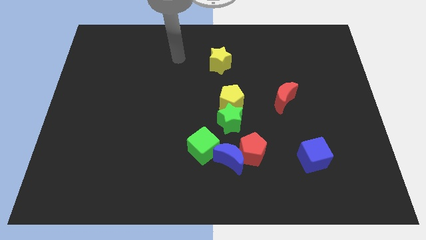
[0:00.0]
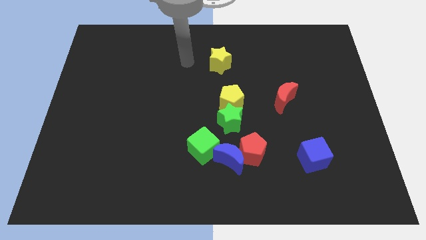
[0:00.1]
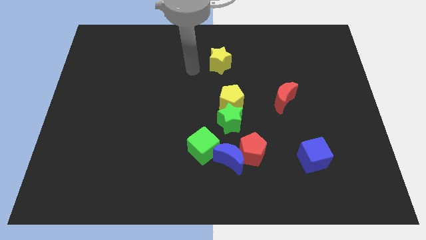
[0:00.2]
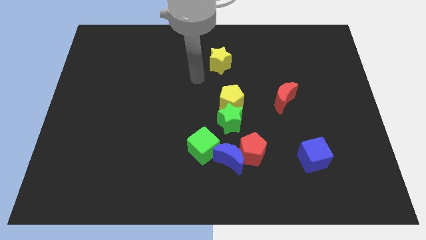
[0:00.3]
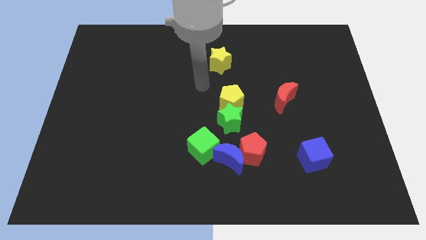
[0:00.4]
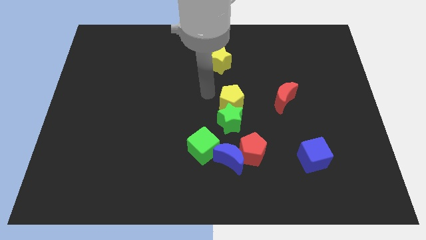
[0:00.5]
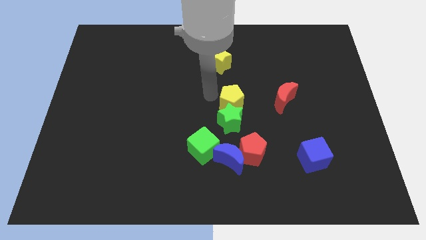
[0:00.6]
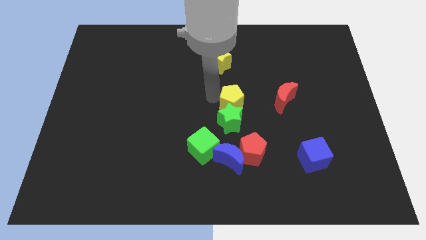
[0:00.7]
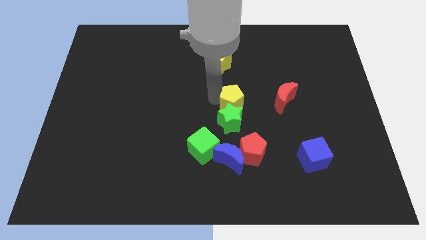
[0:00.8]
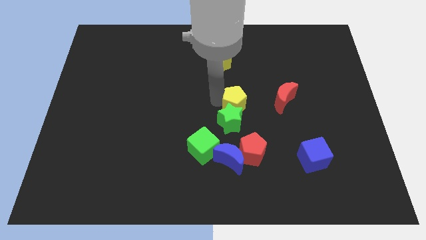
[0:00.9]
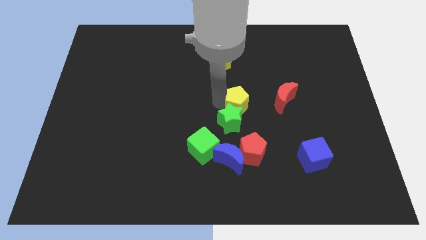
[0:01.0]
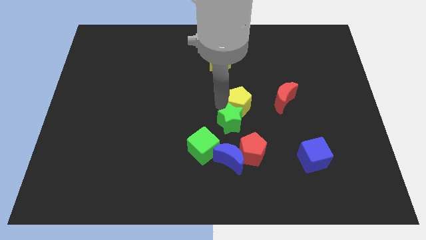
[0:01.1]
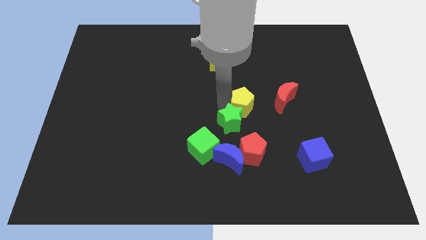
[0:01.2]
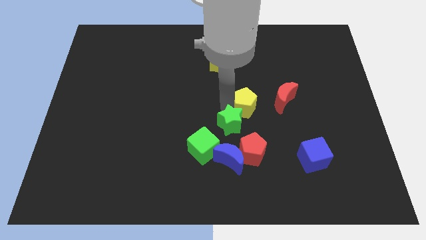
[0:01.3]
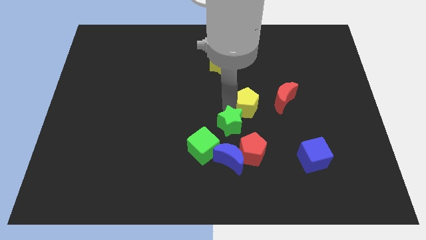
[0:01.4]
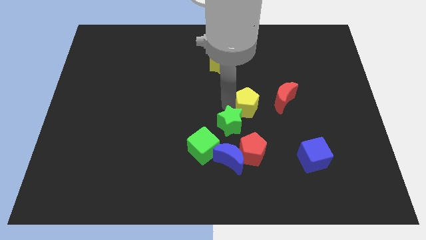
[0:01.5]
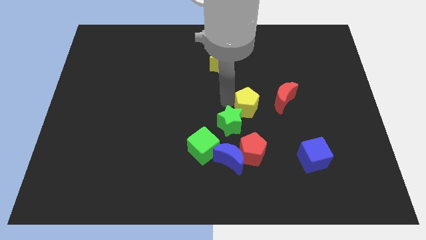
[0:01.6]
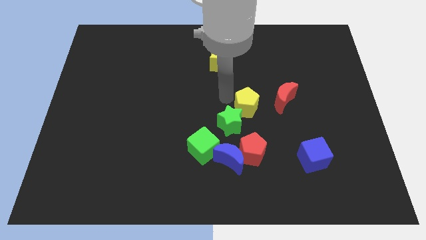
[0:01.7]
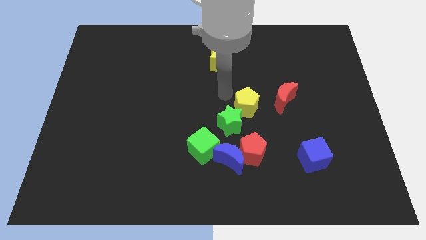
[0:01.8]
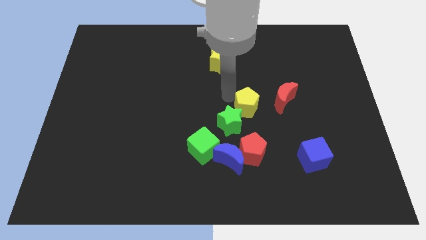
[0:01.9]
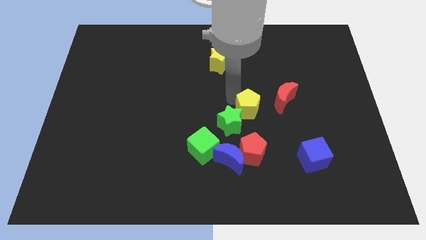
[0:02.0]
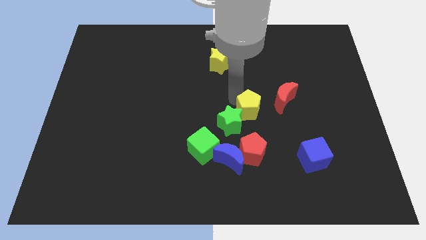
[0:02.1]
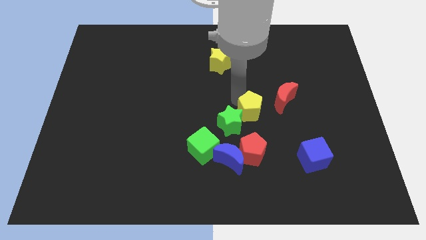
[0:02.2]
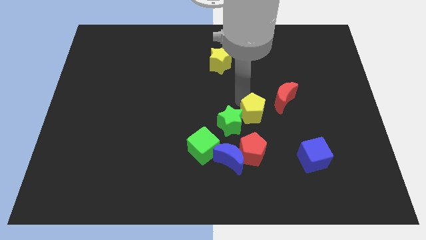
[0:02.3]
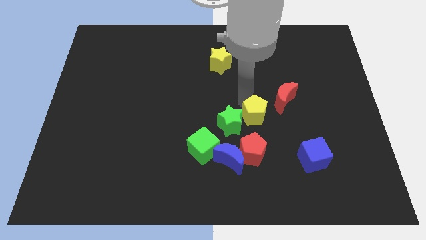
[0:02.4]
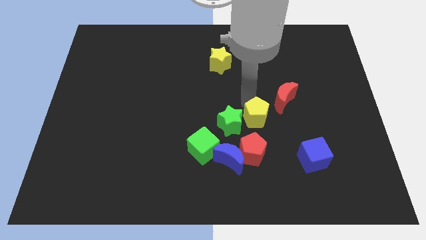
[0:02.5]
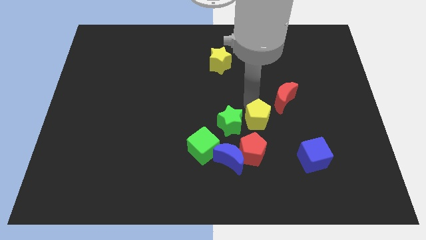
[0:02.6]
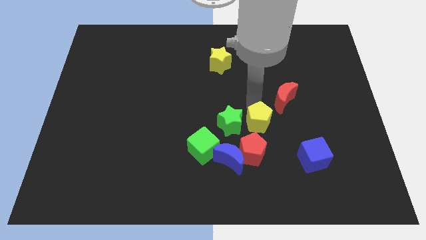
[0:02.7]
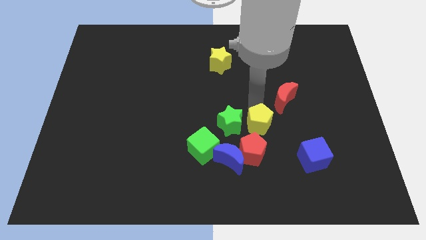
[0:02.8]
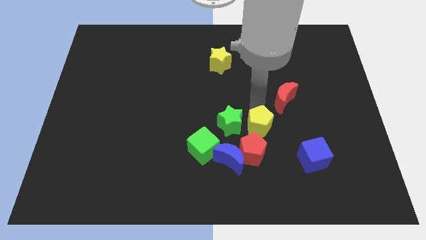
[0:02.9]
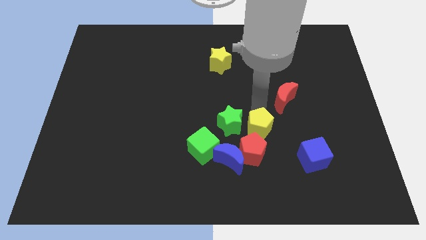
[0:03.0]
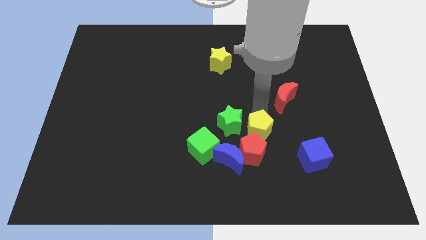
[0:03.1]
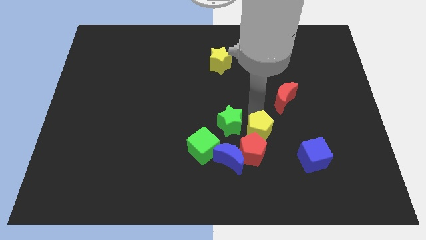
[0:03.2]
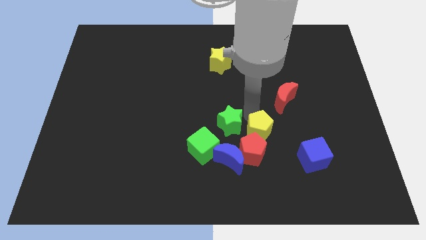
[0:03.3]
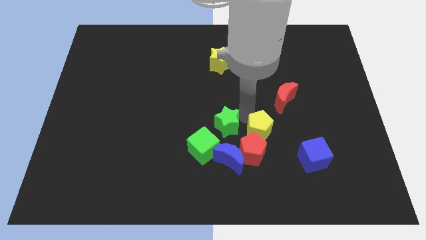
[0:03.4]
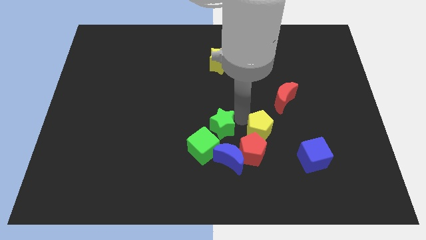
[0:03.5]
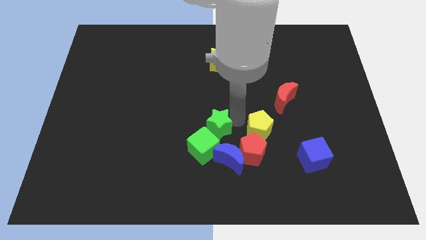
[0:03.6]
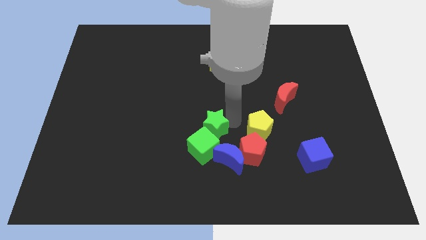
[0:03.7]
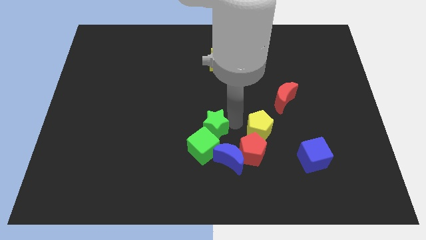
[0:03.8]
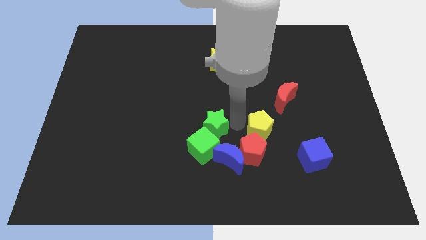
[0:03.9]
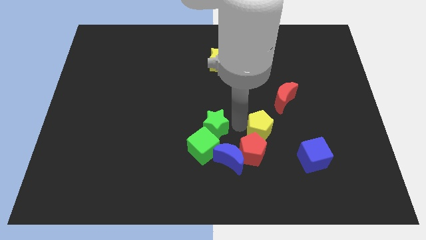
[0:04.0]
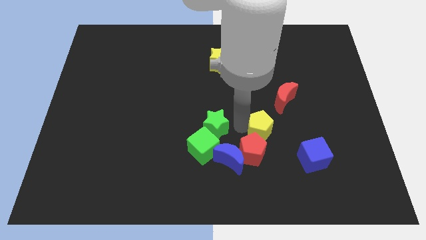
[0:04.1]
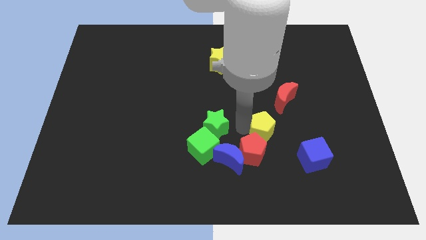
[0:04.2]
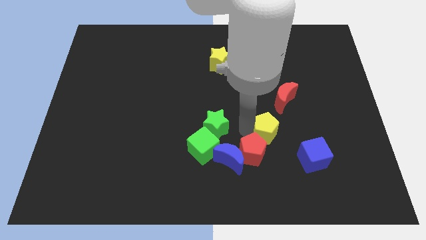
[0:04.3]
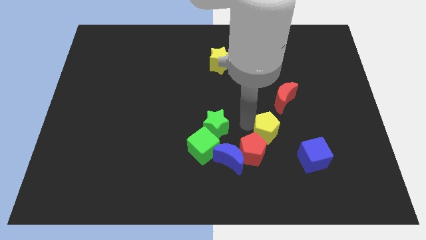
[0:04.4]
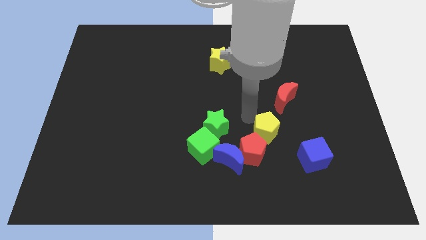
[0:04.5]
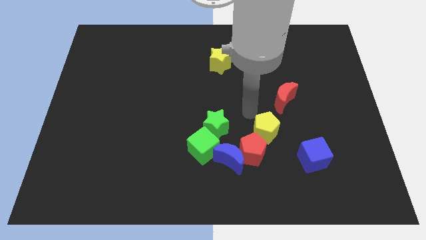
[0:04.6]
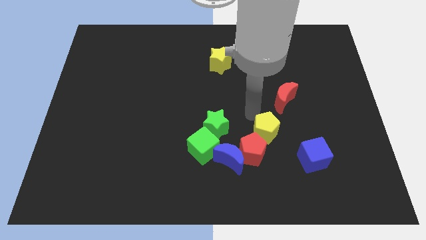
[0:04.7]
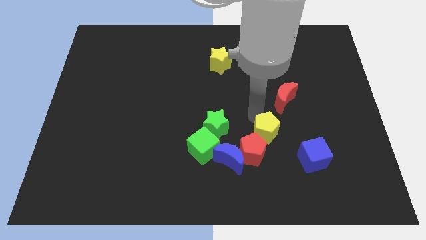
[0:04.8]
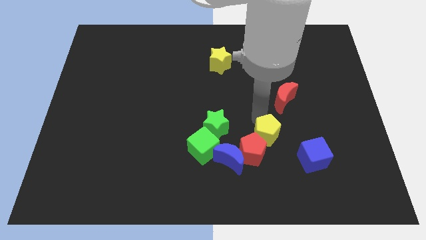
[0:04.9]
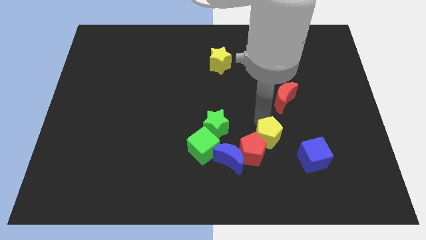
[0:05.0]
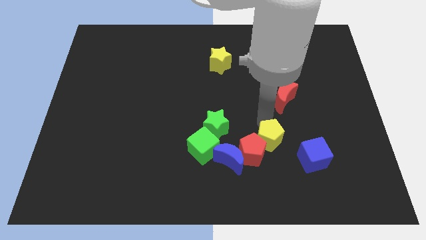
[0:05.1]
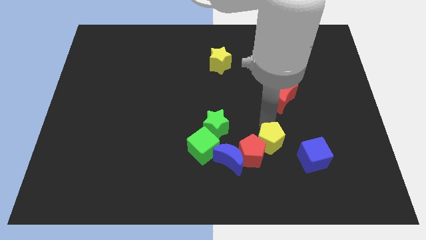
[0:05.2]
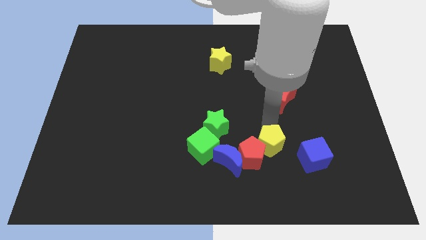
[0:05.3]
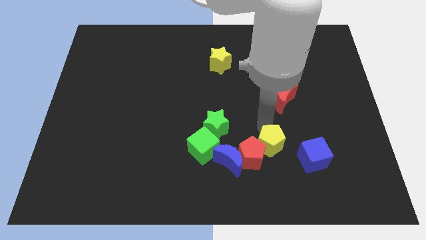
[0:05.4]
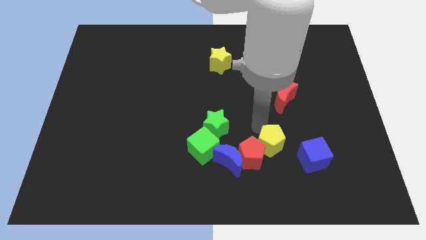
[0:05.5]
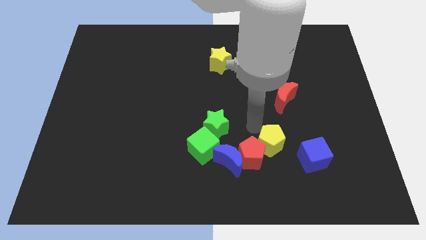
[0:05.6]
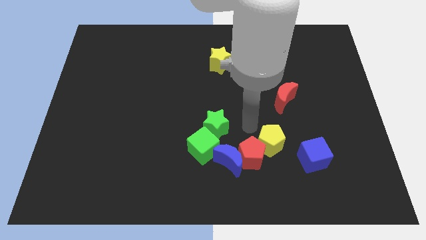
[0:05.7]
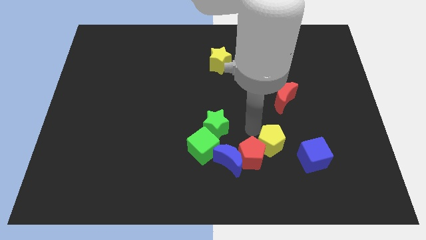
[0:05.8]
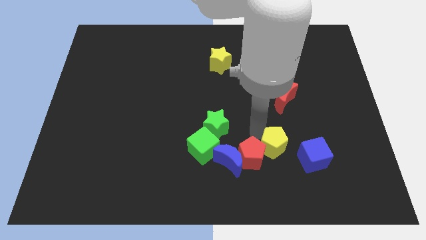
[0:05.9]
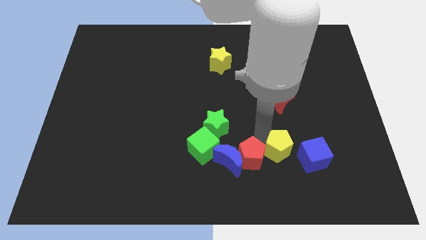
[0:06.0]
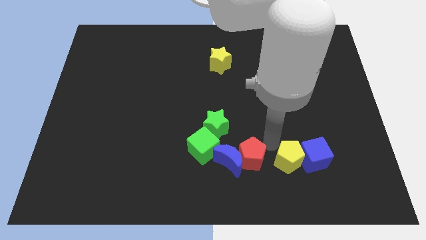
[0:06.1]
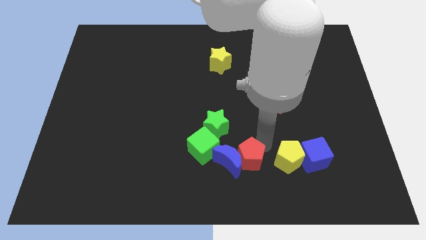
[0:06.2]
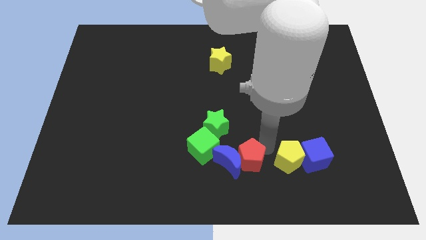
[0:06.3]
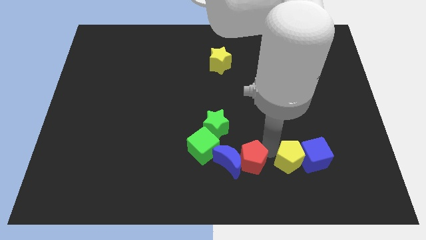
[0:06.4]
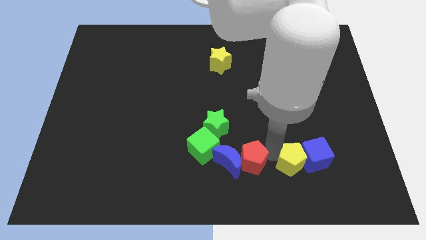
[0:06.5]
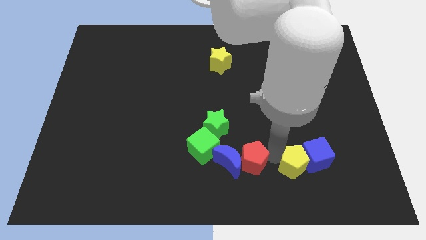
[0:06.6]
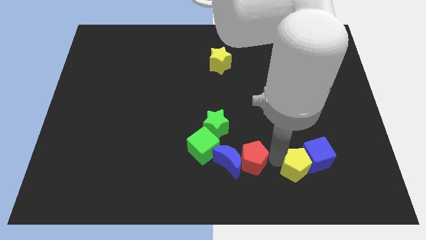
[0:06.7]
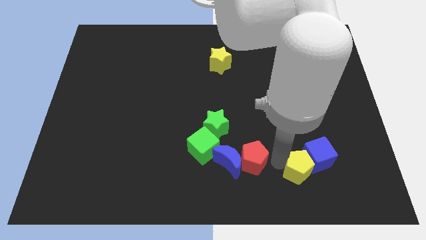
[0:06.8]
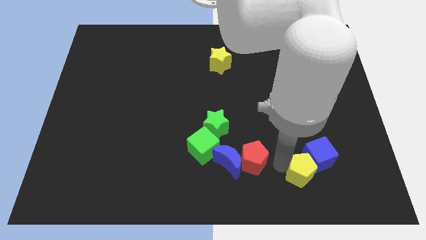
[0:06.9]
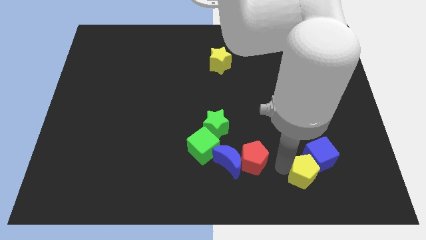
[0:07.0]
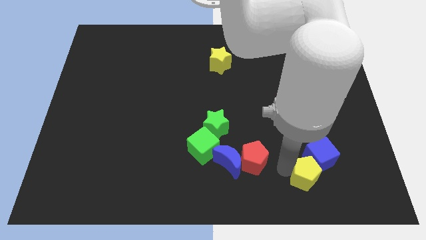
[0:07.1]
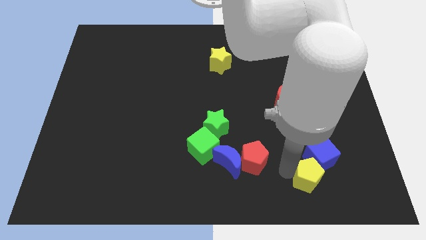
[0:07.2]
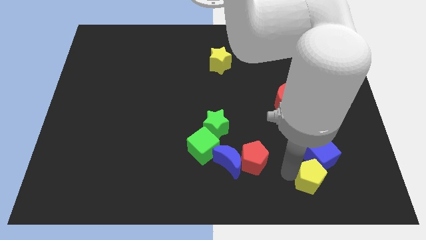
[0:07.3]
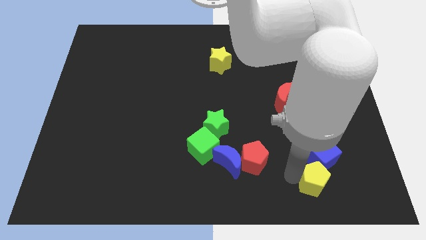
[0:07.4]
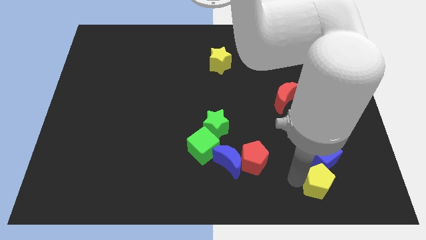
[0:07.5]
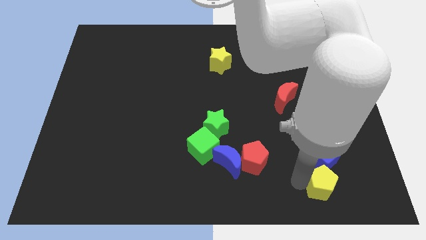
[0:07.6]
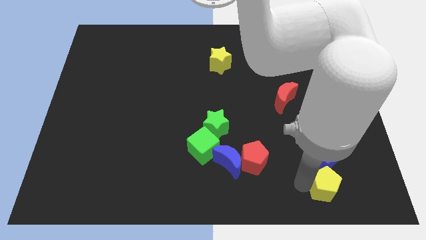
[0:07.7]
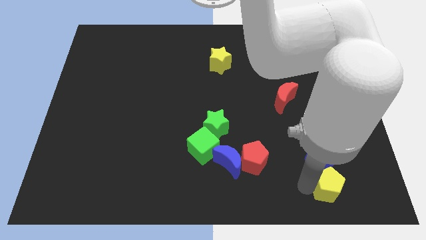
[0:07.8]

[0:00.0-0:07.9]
put the yellow pentagon diagonally down and to the right of the blue cube
